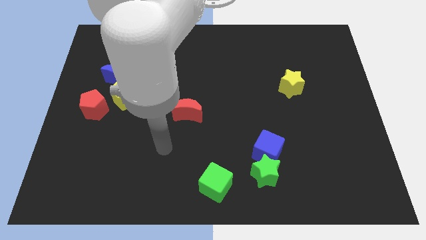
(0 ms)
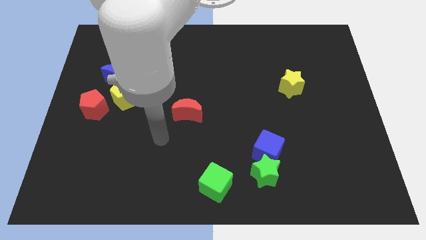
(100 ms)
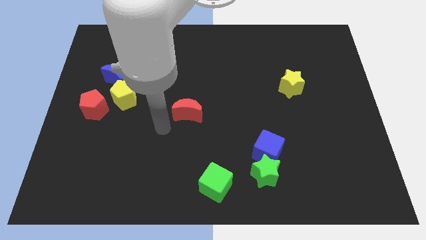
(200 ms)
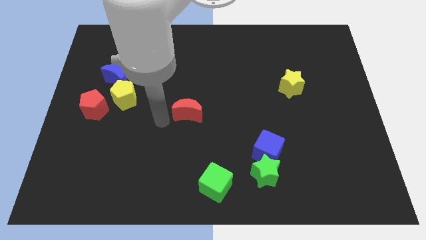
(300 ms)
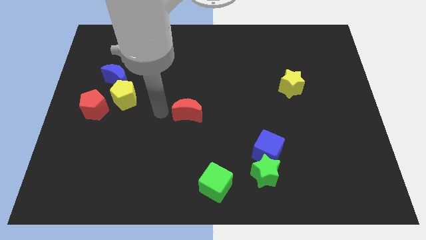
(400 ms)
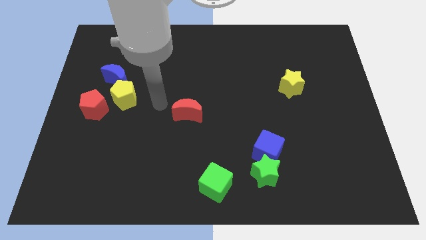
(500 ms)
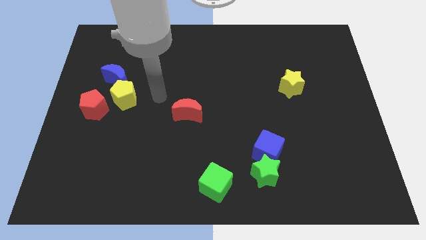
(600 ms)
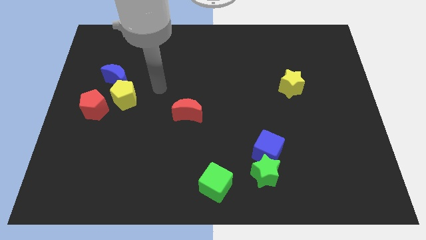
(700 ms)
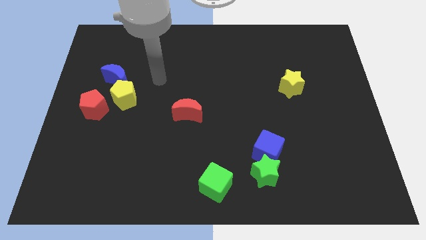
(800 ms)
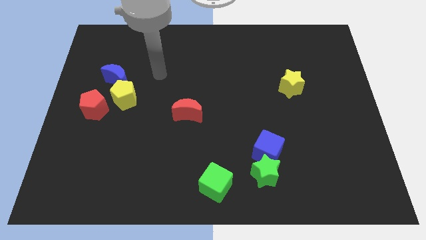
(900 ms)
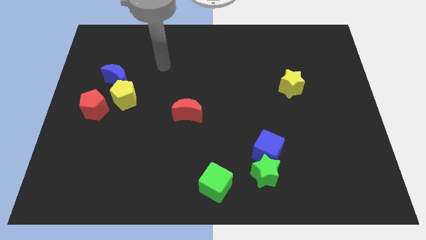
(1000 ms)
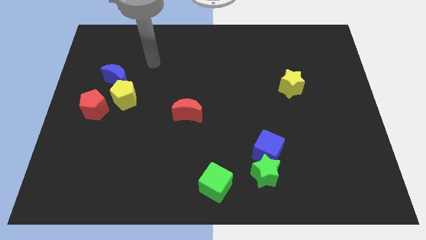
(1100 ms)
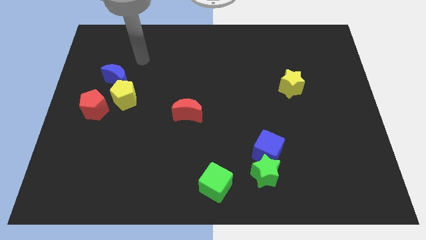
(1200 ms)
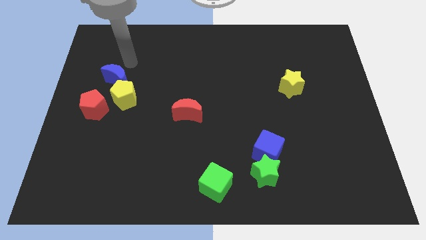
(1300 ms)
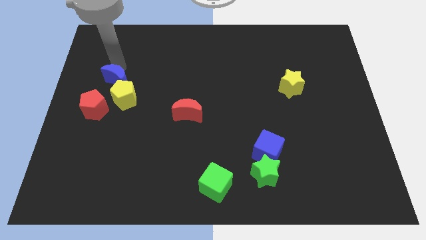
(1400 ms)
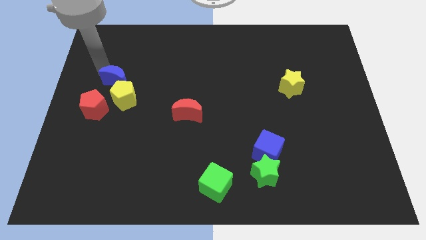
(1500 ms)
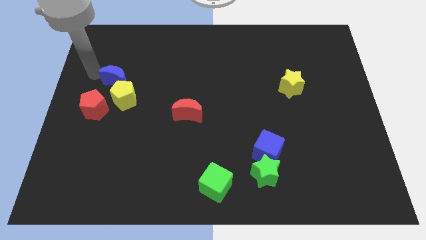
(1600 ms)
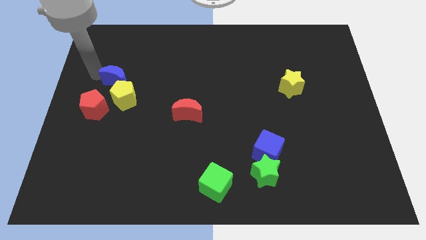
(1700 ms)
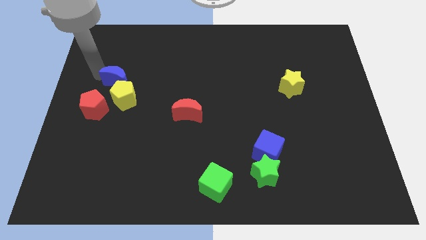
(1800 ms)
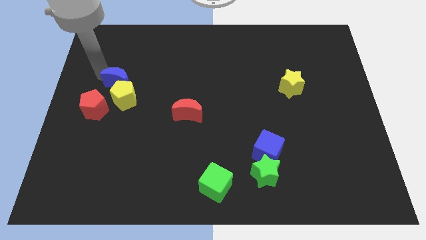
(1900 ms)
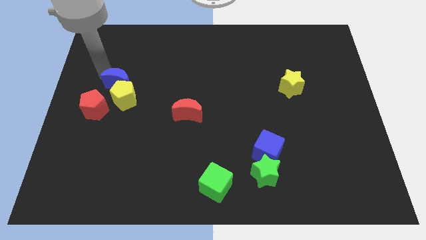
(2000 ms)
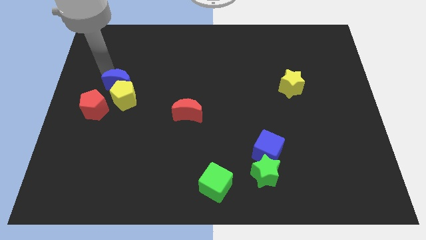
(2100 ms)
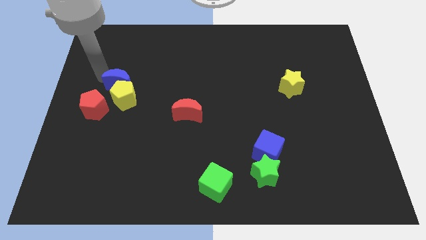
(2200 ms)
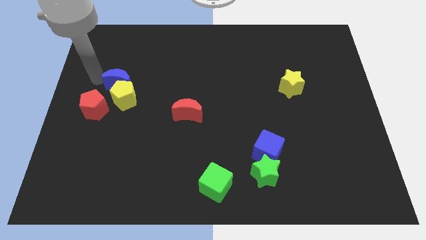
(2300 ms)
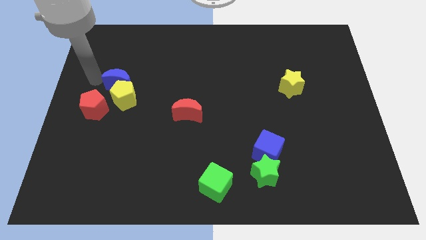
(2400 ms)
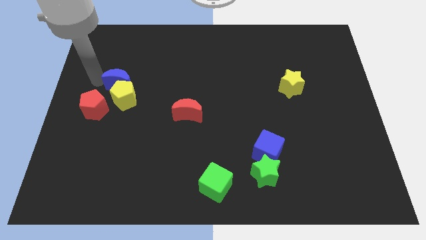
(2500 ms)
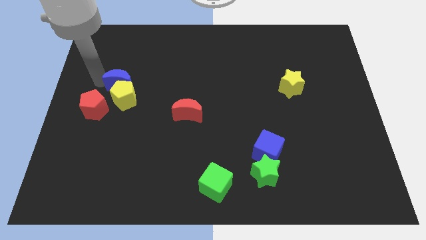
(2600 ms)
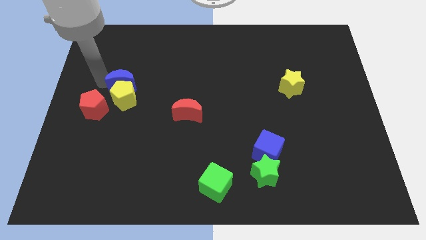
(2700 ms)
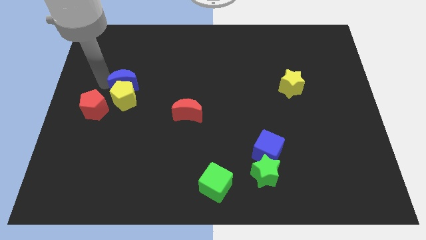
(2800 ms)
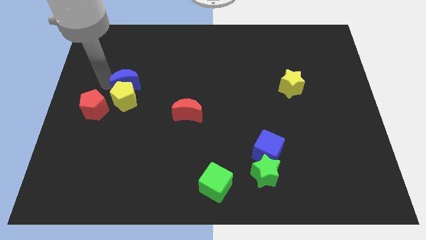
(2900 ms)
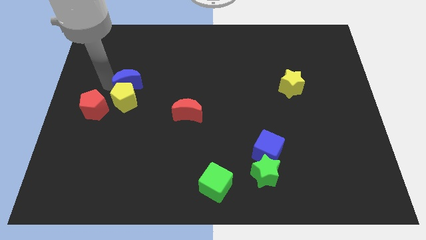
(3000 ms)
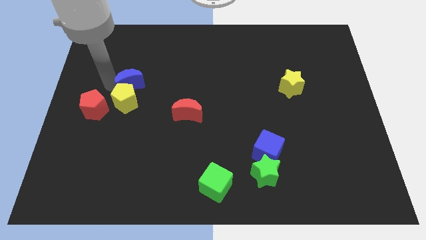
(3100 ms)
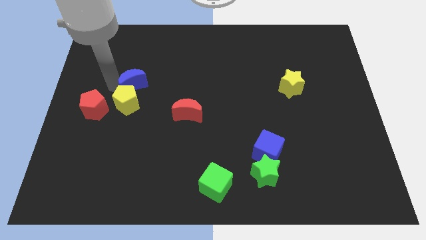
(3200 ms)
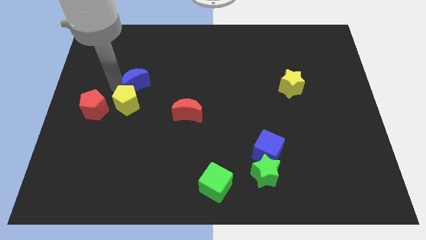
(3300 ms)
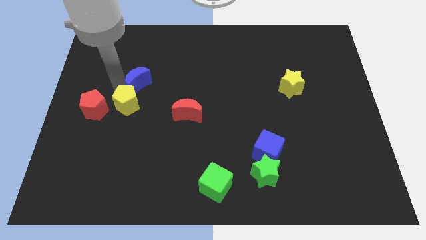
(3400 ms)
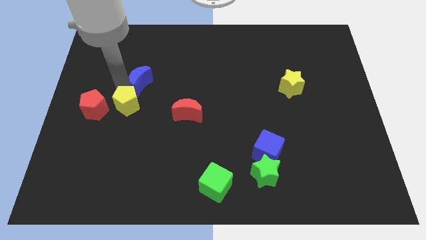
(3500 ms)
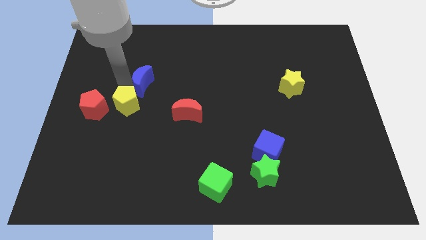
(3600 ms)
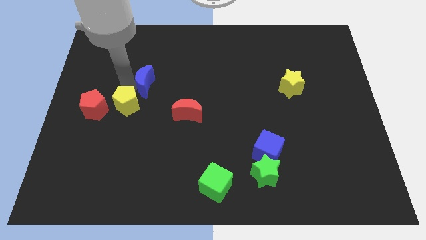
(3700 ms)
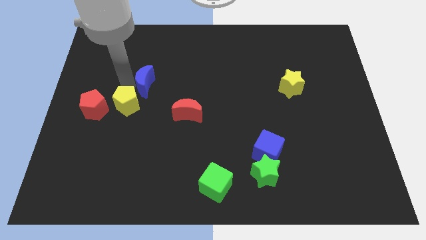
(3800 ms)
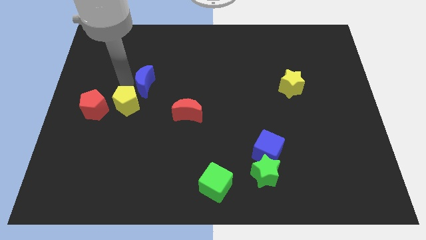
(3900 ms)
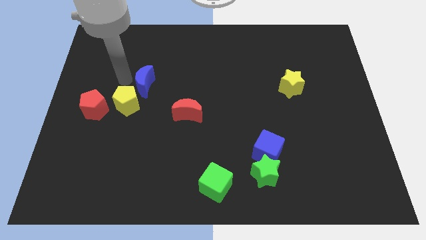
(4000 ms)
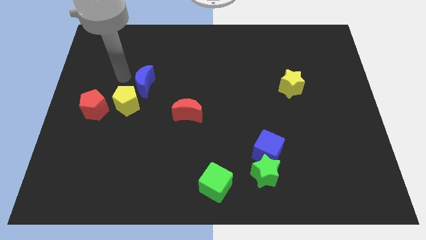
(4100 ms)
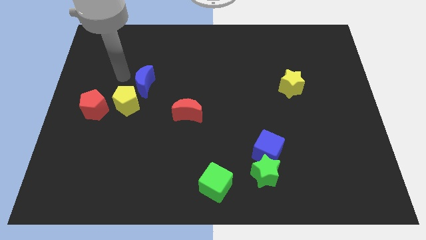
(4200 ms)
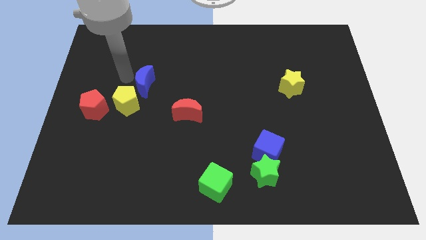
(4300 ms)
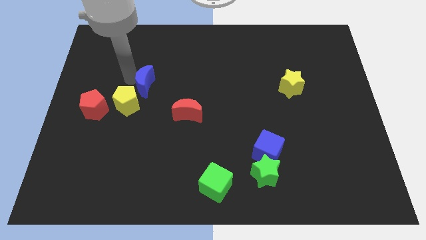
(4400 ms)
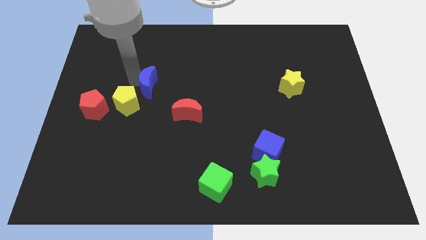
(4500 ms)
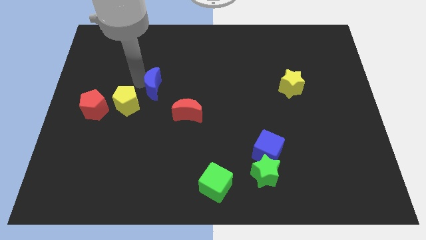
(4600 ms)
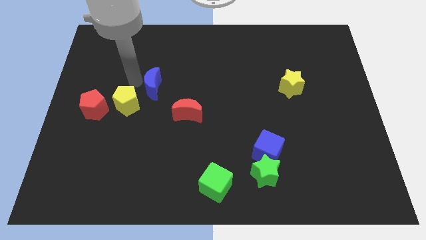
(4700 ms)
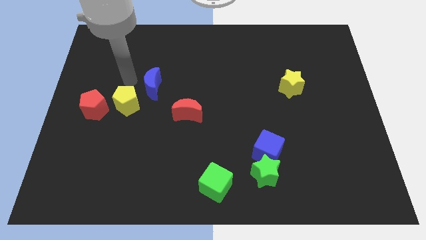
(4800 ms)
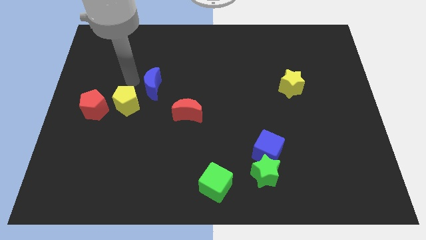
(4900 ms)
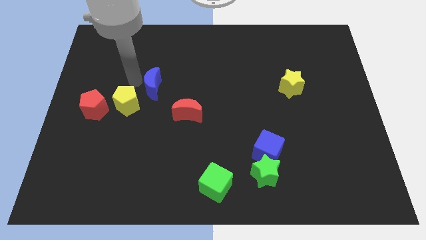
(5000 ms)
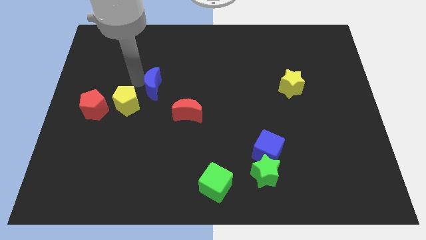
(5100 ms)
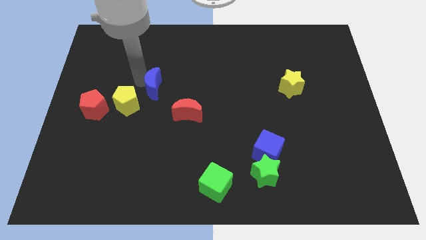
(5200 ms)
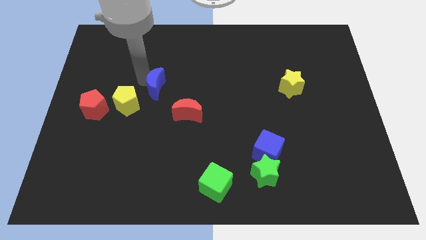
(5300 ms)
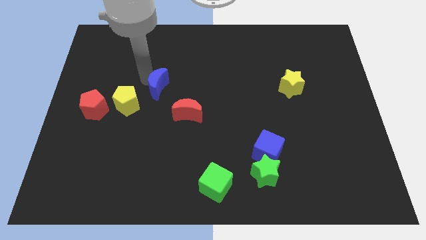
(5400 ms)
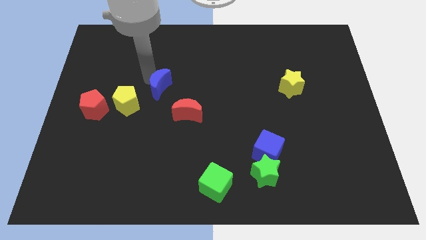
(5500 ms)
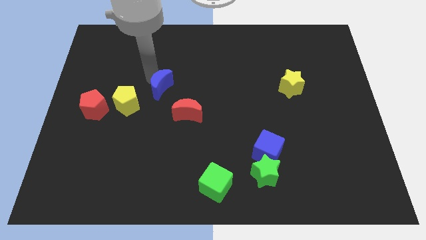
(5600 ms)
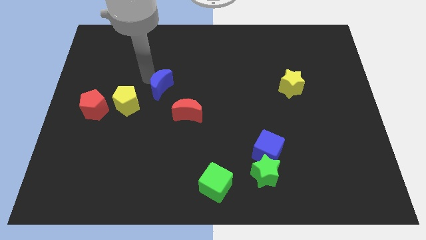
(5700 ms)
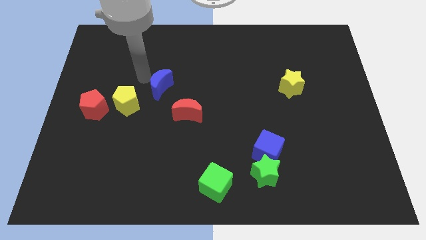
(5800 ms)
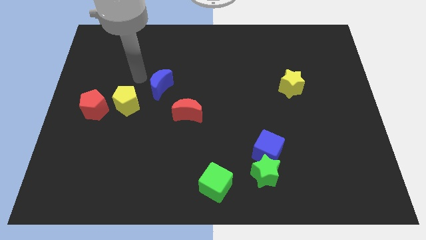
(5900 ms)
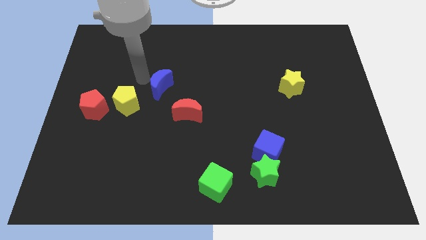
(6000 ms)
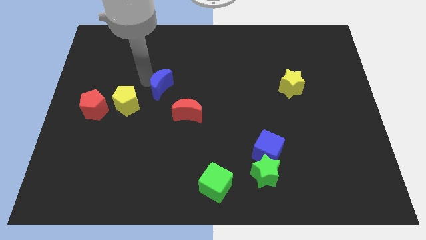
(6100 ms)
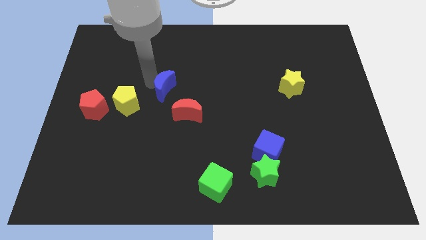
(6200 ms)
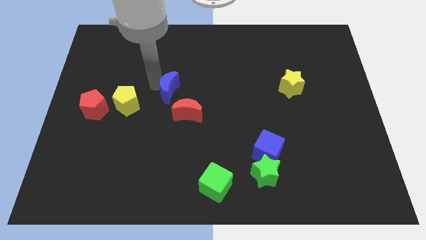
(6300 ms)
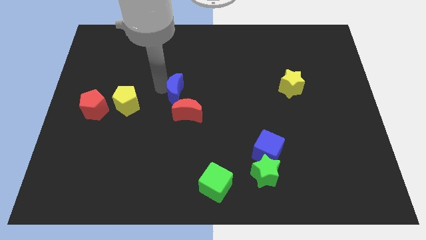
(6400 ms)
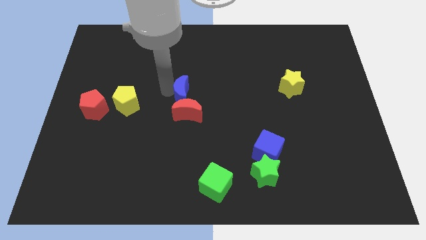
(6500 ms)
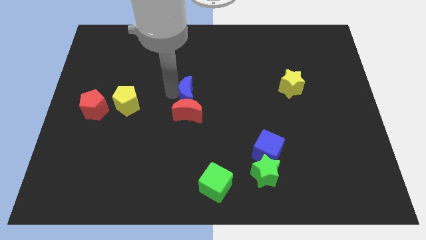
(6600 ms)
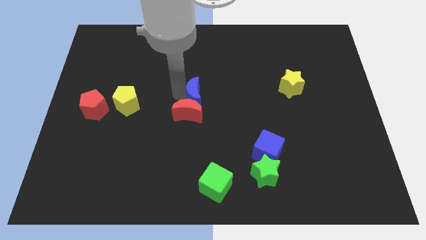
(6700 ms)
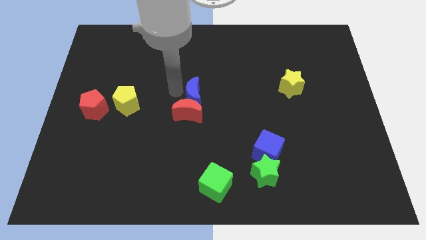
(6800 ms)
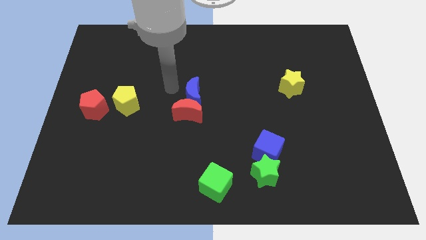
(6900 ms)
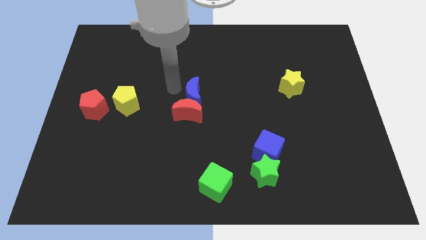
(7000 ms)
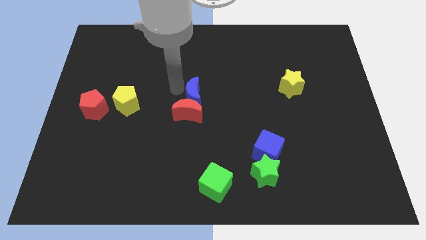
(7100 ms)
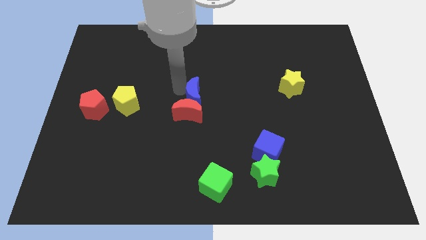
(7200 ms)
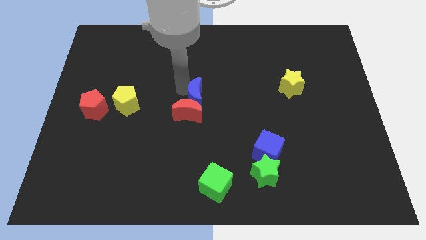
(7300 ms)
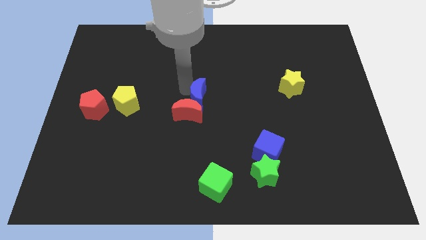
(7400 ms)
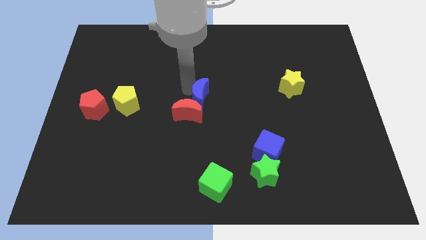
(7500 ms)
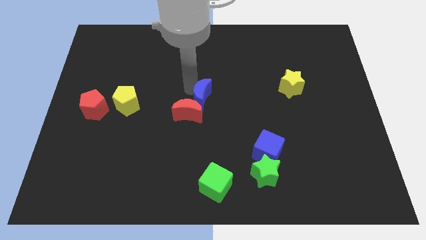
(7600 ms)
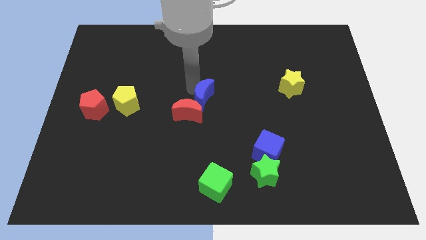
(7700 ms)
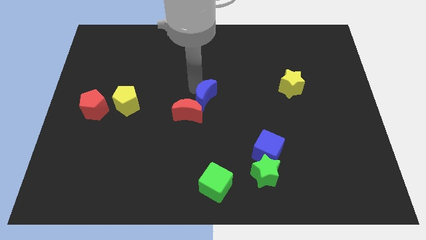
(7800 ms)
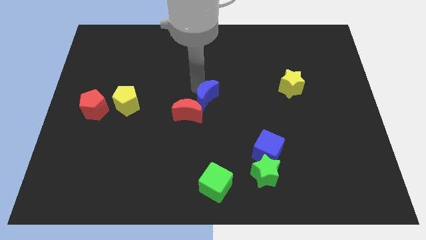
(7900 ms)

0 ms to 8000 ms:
push the blue moon just right of the red moon
